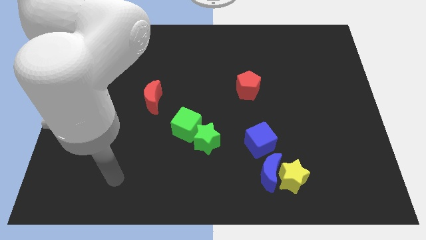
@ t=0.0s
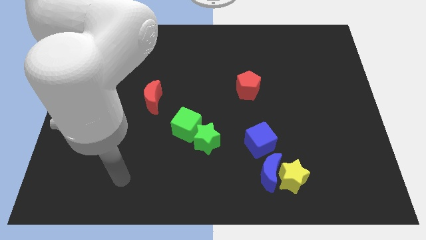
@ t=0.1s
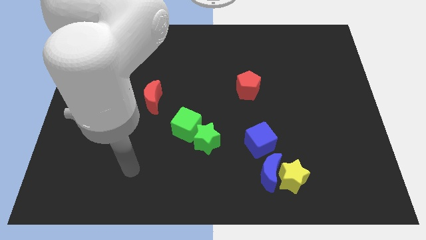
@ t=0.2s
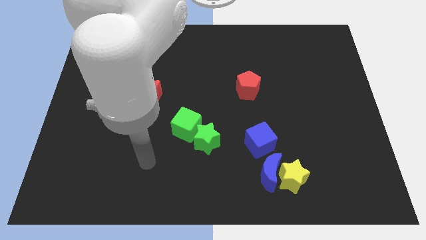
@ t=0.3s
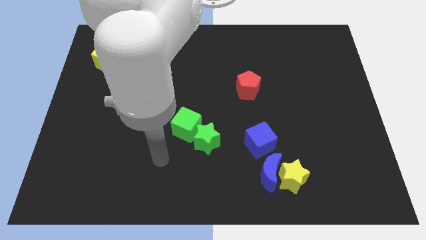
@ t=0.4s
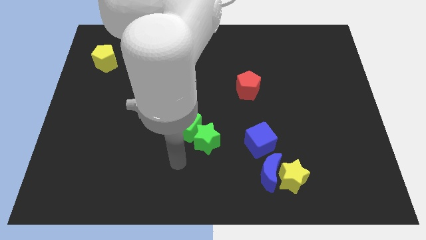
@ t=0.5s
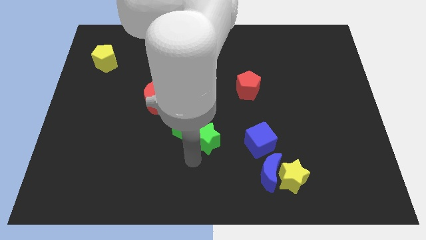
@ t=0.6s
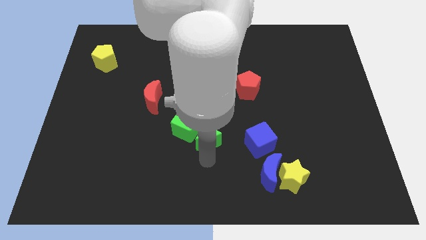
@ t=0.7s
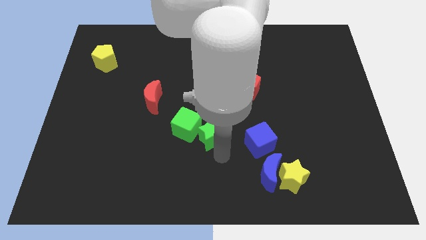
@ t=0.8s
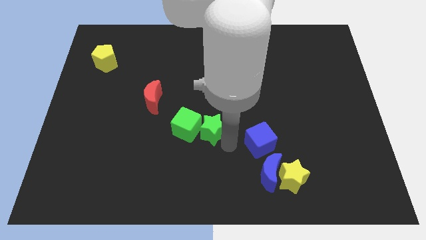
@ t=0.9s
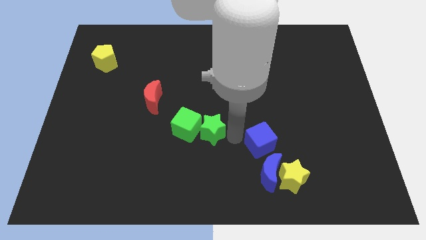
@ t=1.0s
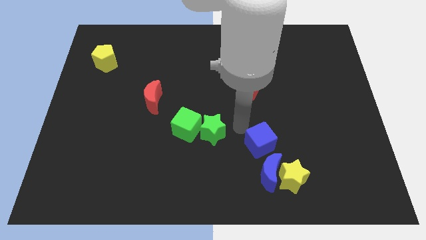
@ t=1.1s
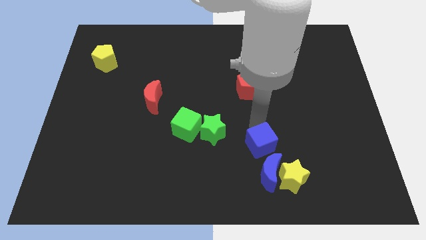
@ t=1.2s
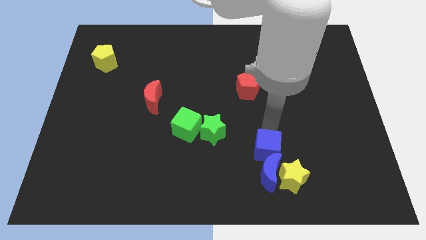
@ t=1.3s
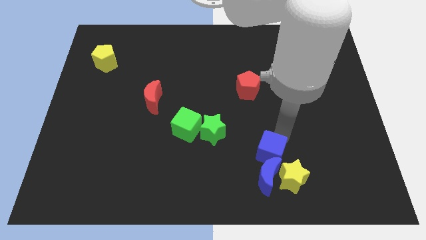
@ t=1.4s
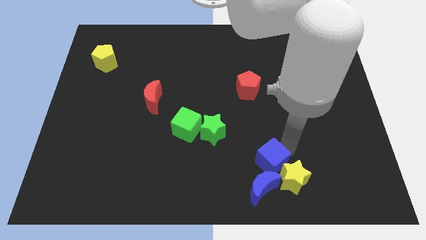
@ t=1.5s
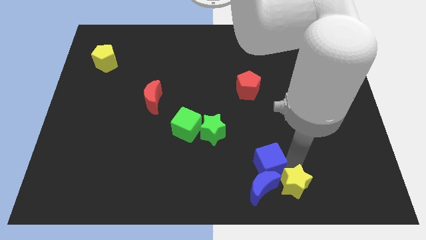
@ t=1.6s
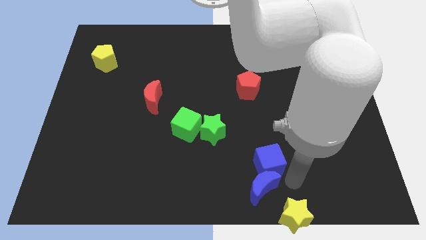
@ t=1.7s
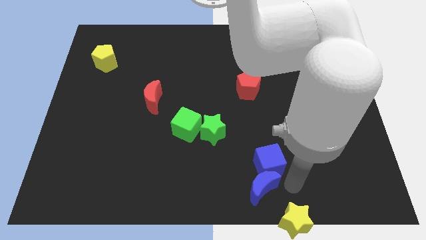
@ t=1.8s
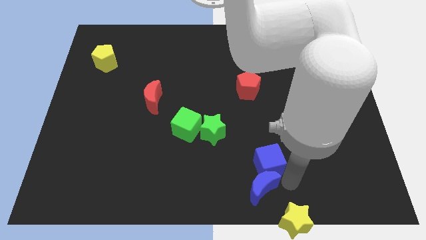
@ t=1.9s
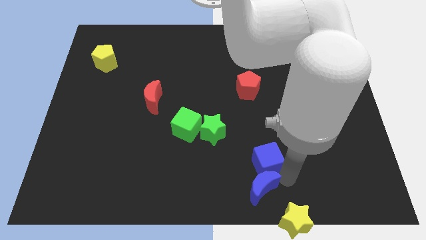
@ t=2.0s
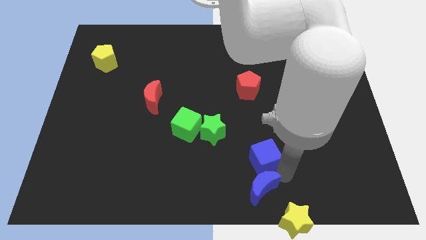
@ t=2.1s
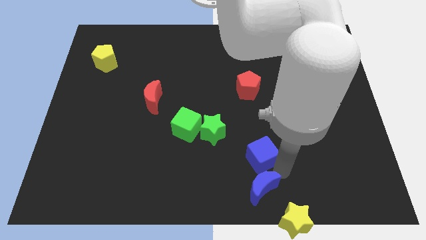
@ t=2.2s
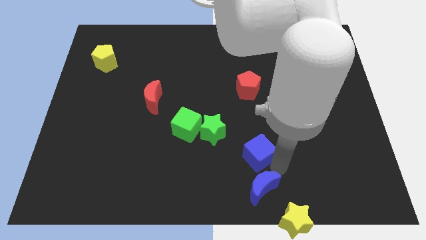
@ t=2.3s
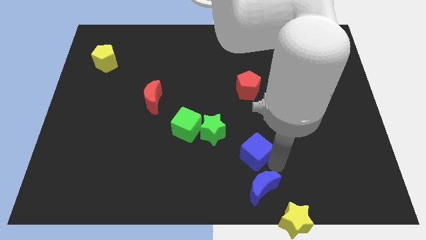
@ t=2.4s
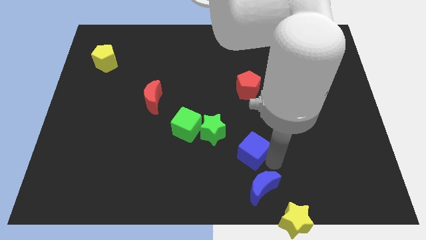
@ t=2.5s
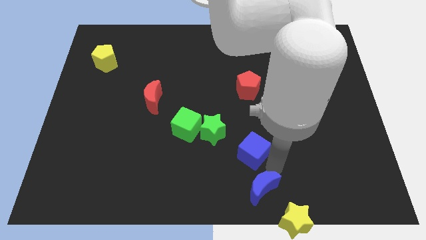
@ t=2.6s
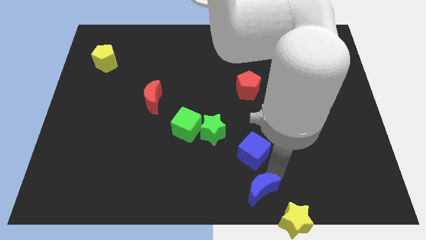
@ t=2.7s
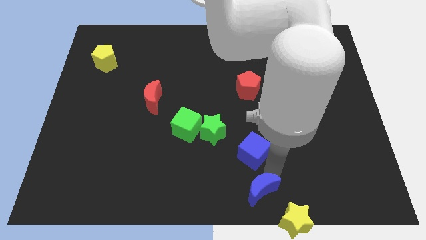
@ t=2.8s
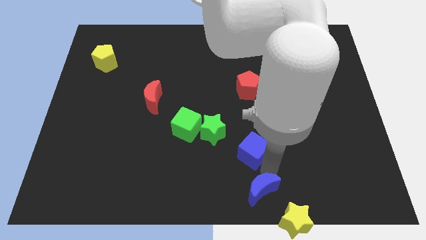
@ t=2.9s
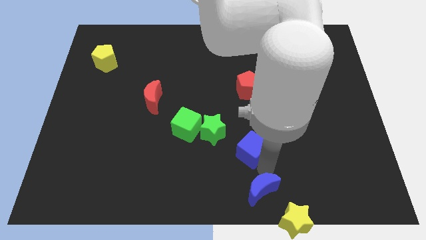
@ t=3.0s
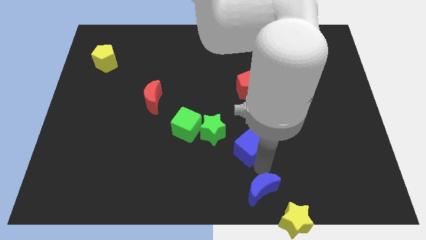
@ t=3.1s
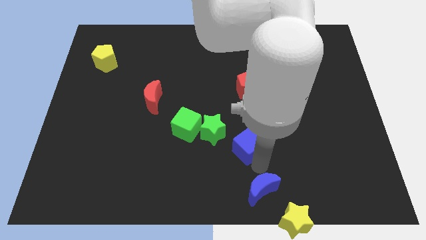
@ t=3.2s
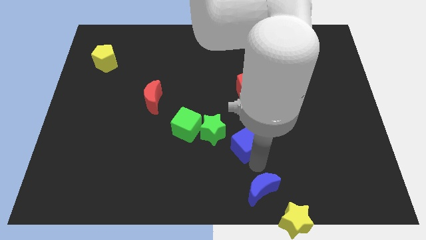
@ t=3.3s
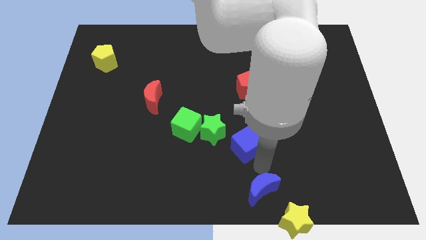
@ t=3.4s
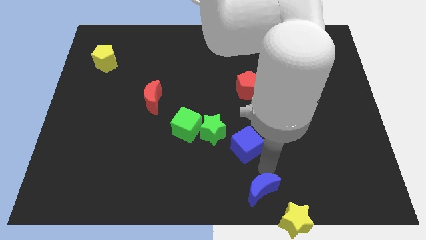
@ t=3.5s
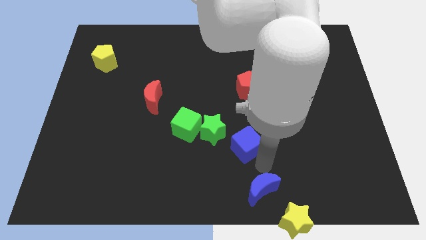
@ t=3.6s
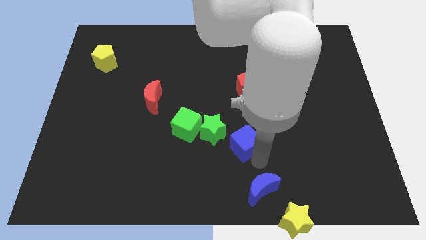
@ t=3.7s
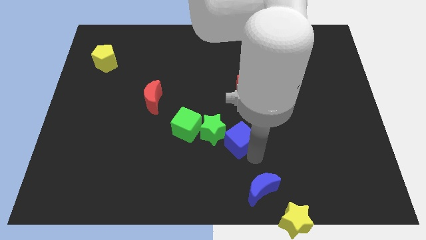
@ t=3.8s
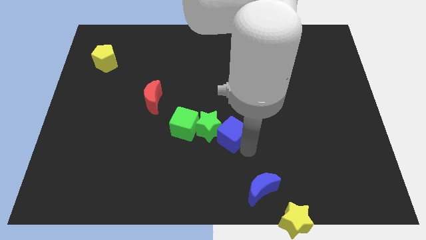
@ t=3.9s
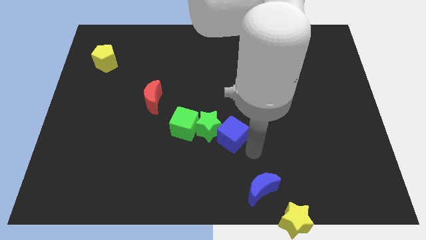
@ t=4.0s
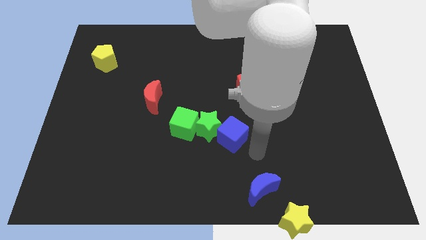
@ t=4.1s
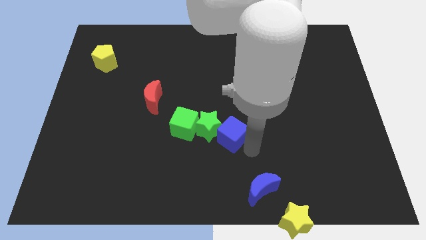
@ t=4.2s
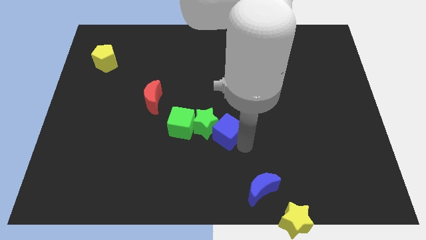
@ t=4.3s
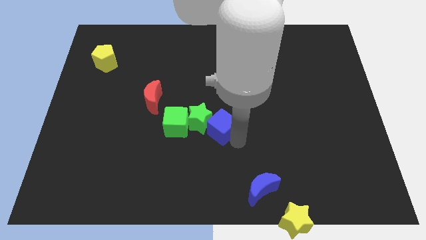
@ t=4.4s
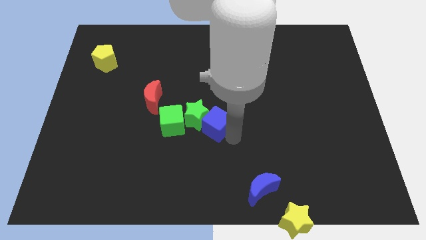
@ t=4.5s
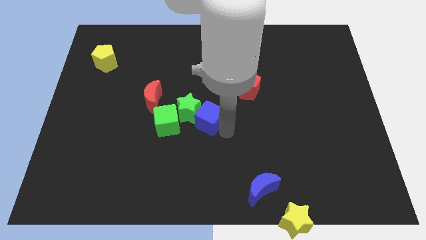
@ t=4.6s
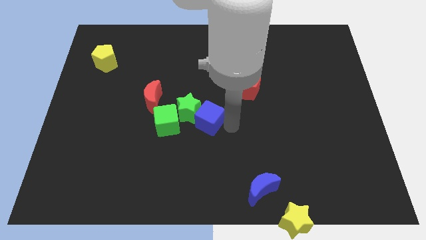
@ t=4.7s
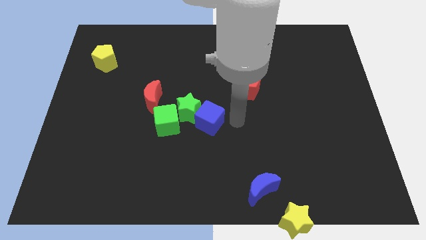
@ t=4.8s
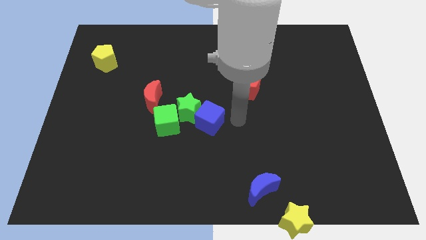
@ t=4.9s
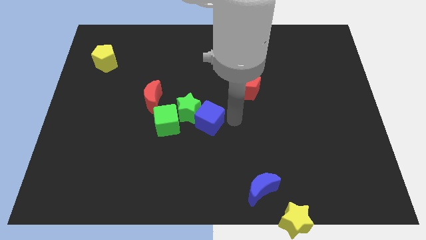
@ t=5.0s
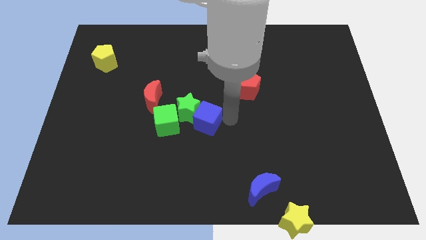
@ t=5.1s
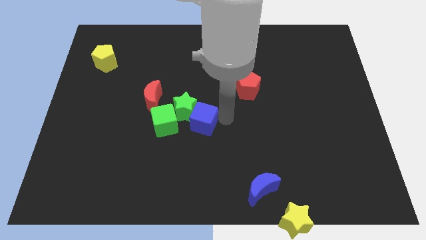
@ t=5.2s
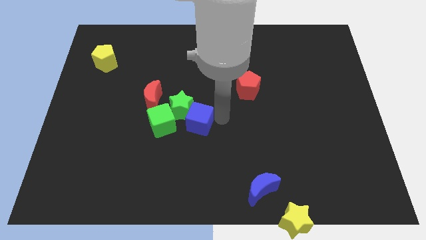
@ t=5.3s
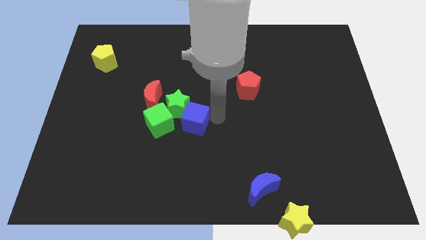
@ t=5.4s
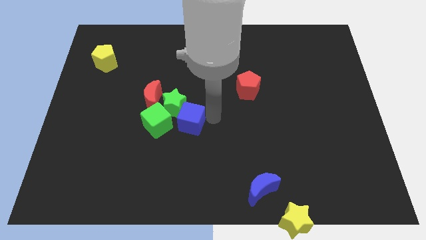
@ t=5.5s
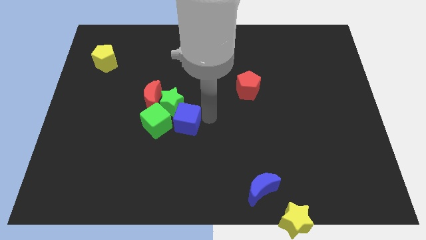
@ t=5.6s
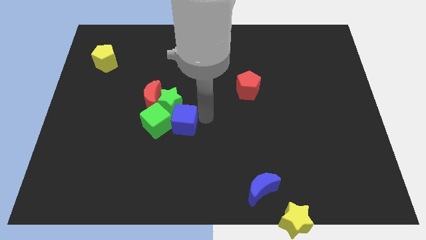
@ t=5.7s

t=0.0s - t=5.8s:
put the blue cube to the green cube

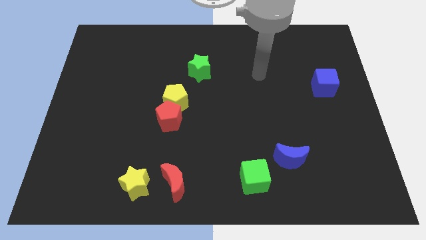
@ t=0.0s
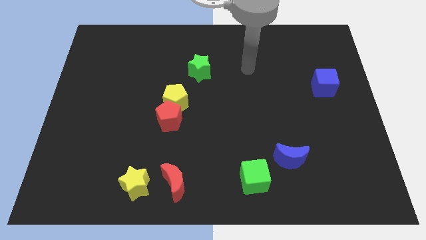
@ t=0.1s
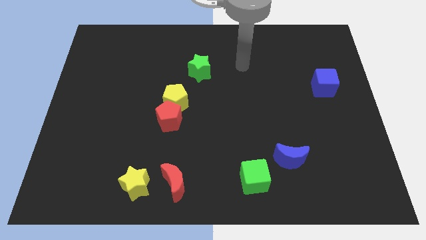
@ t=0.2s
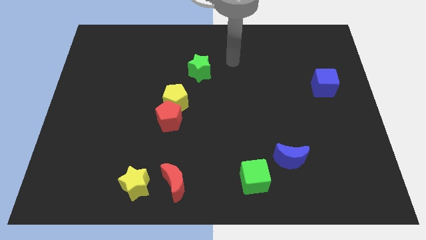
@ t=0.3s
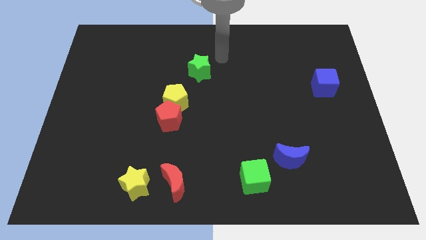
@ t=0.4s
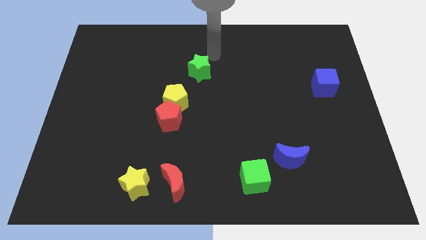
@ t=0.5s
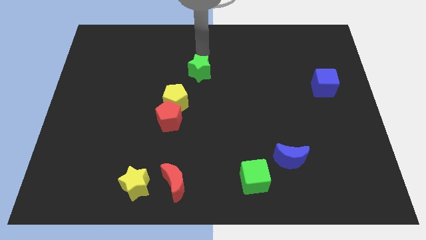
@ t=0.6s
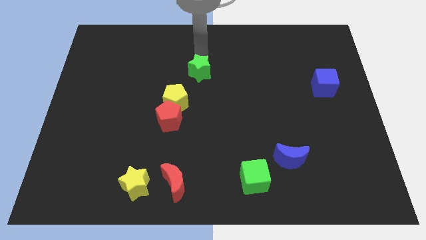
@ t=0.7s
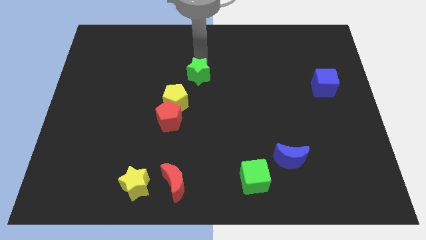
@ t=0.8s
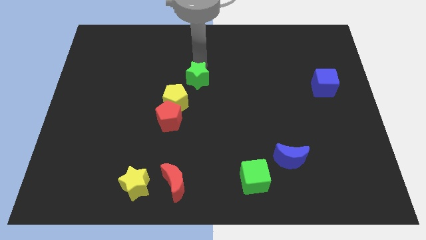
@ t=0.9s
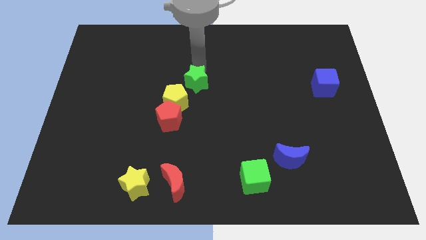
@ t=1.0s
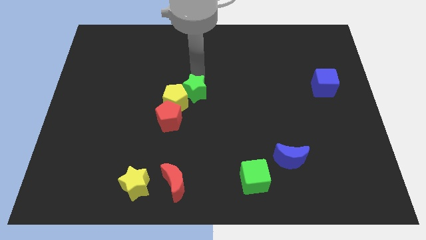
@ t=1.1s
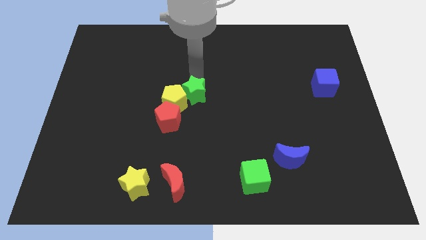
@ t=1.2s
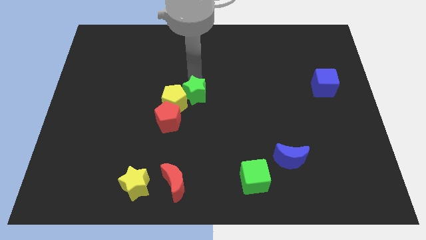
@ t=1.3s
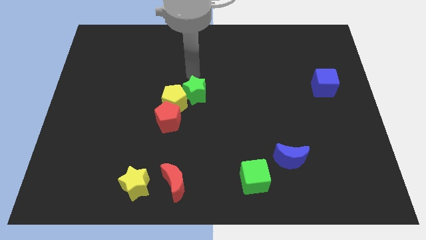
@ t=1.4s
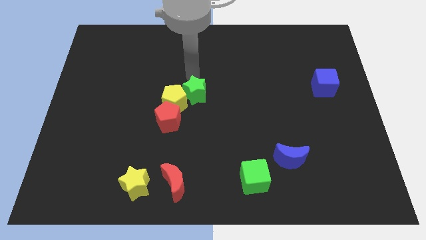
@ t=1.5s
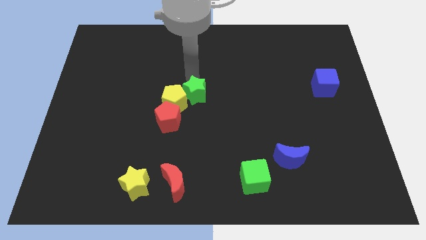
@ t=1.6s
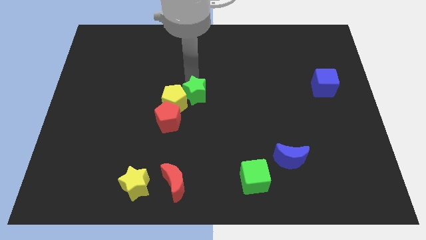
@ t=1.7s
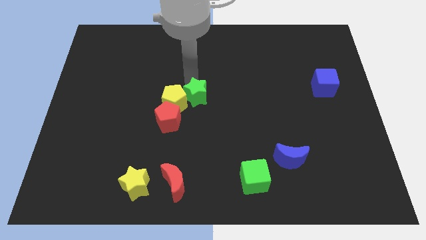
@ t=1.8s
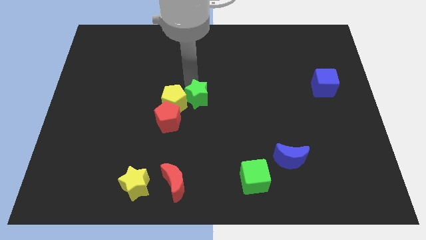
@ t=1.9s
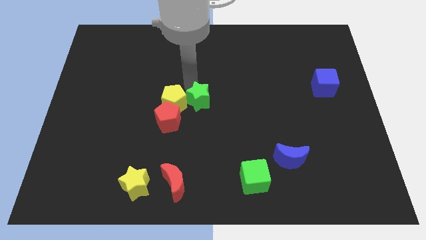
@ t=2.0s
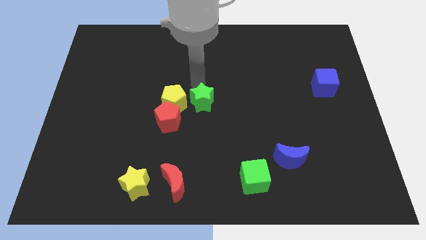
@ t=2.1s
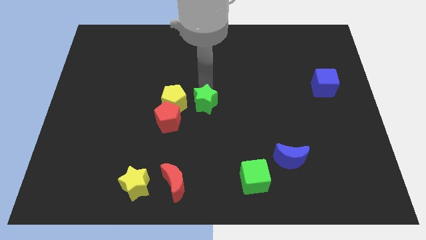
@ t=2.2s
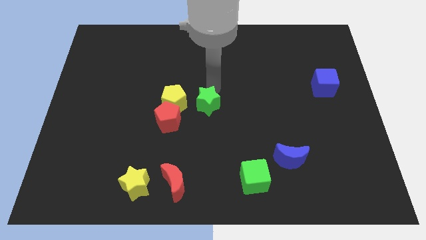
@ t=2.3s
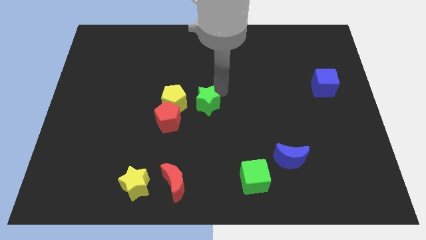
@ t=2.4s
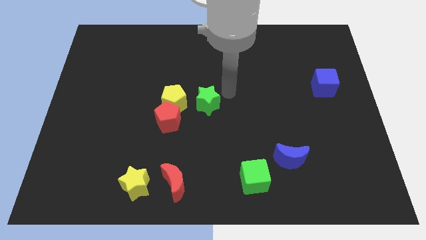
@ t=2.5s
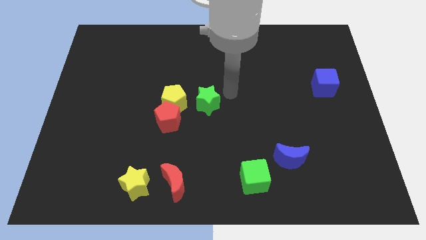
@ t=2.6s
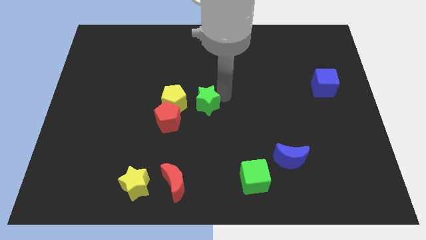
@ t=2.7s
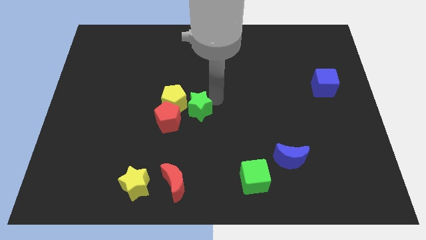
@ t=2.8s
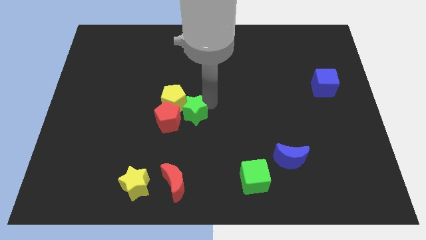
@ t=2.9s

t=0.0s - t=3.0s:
put the green star next to the red pentagon
